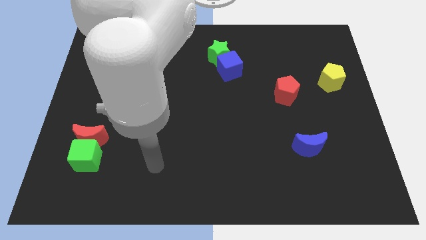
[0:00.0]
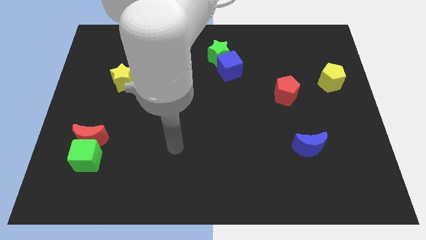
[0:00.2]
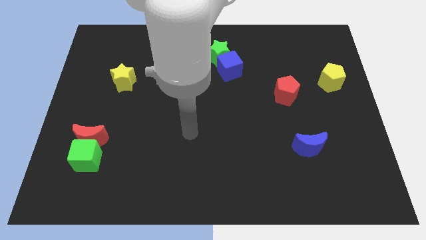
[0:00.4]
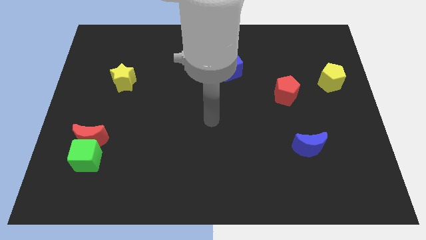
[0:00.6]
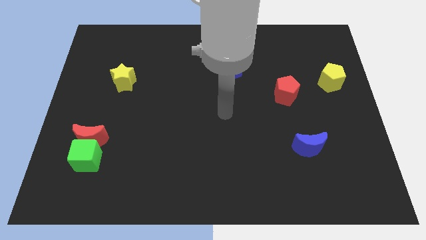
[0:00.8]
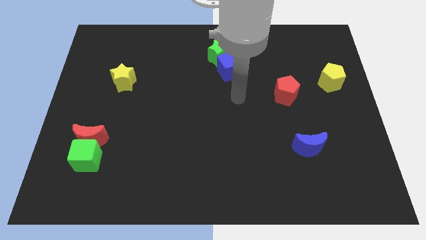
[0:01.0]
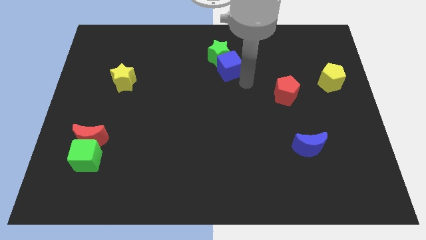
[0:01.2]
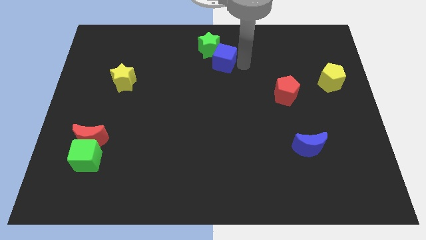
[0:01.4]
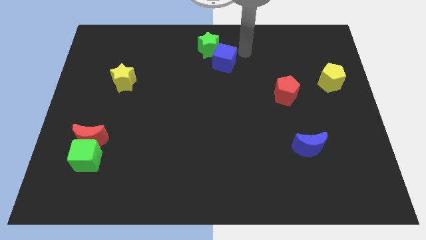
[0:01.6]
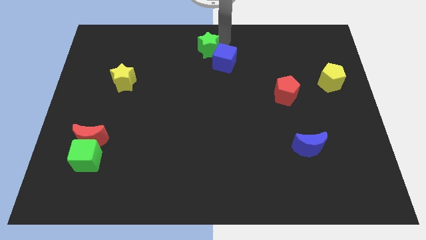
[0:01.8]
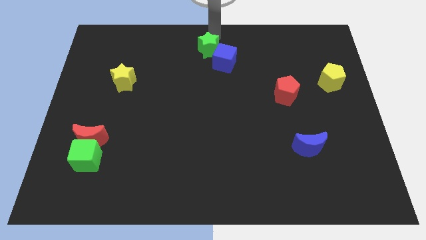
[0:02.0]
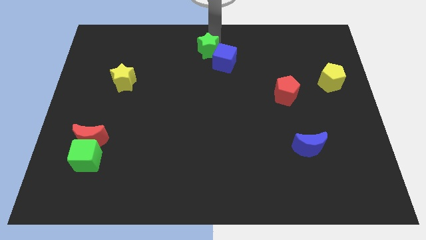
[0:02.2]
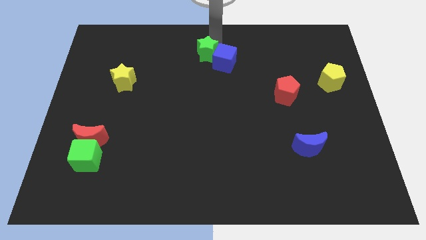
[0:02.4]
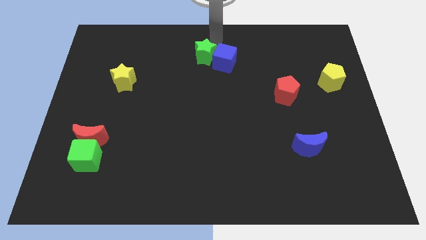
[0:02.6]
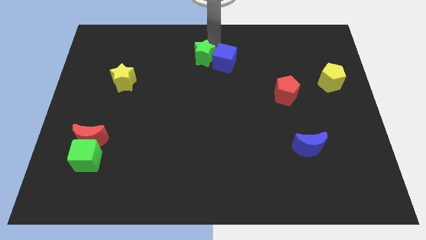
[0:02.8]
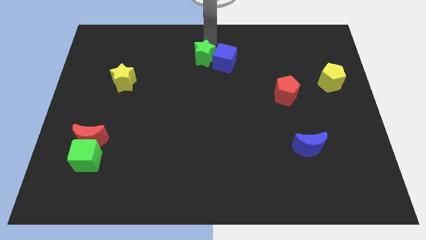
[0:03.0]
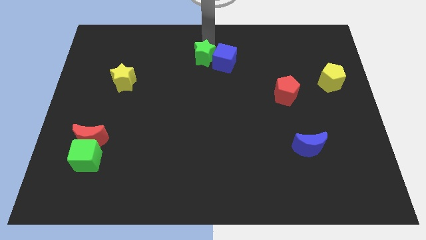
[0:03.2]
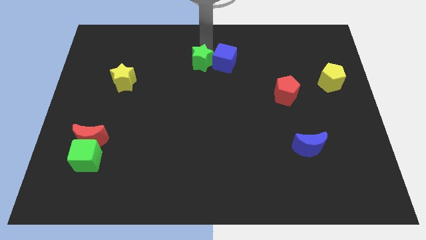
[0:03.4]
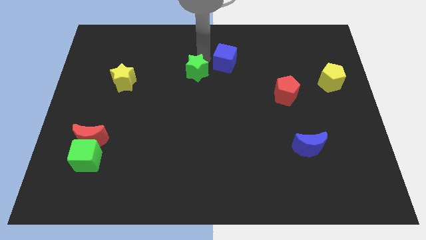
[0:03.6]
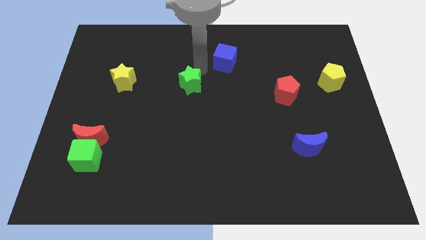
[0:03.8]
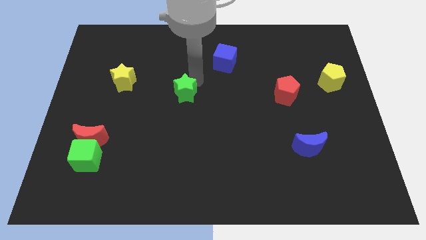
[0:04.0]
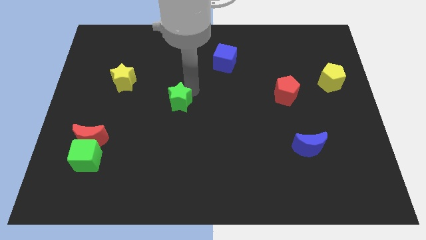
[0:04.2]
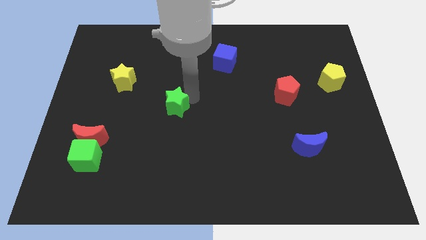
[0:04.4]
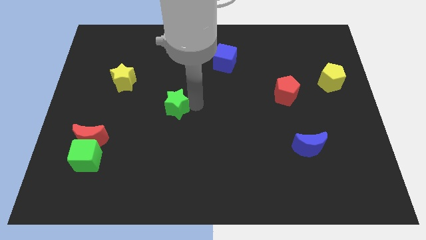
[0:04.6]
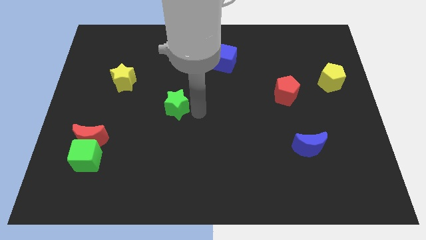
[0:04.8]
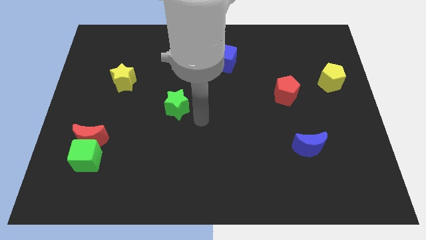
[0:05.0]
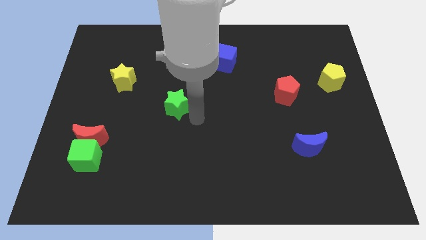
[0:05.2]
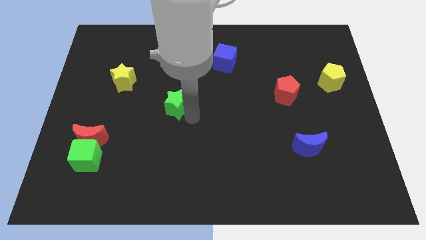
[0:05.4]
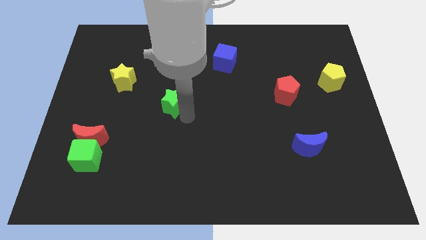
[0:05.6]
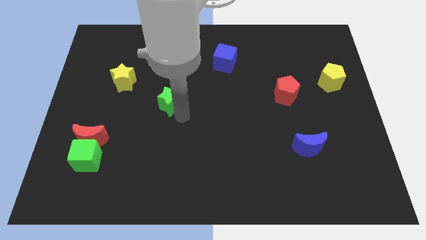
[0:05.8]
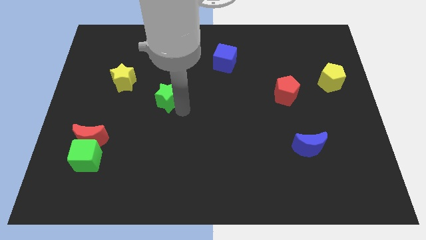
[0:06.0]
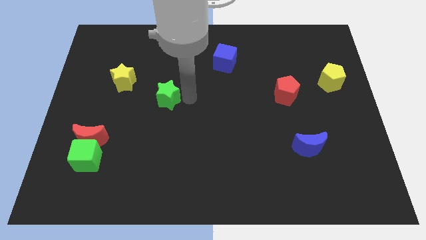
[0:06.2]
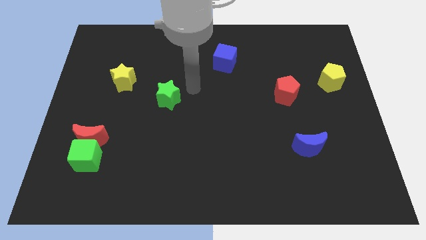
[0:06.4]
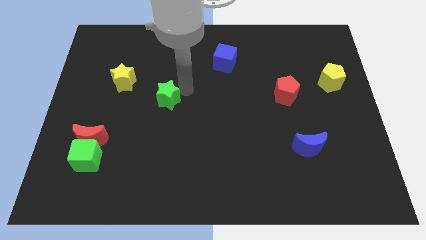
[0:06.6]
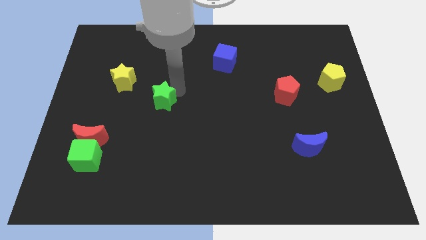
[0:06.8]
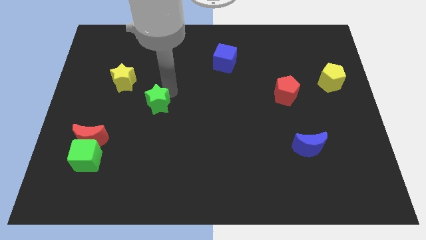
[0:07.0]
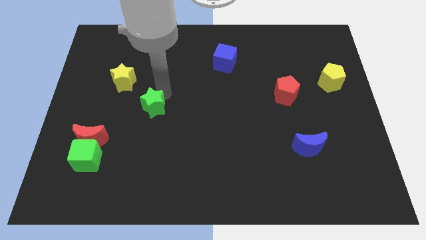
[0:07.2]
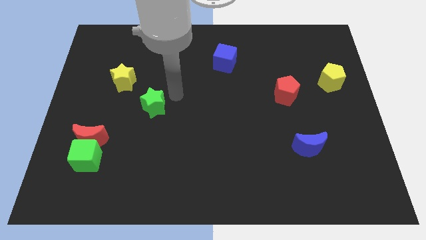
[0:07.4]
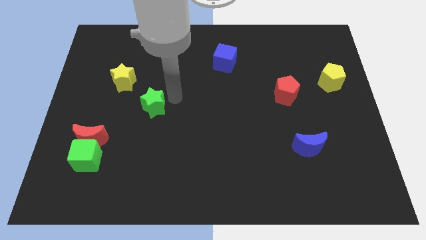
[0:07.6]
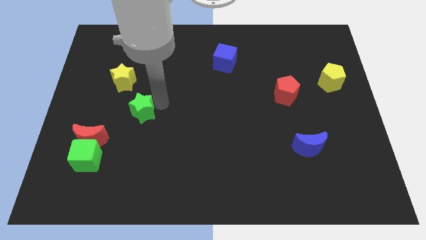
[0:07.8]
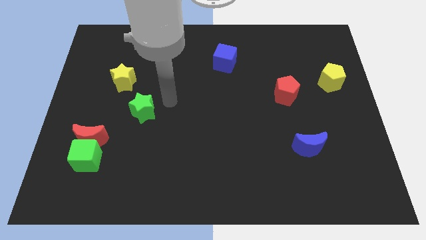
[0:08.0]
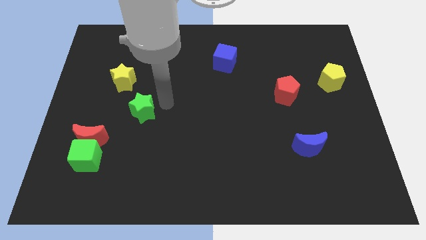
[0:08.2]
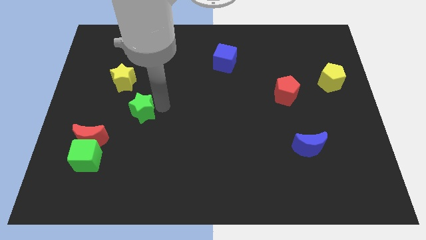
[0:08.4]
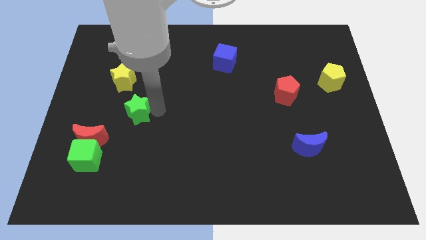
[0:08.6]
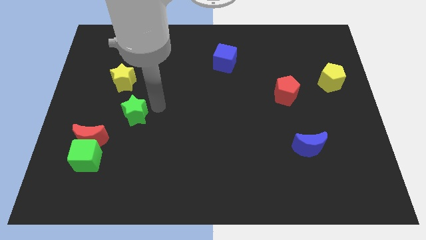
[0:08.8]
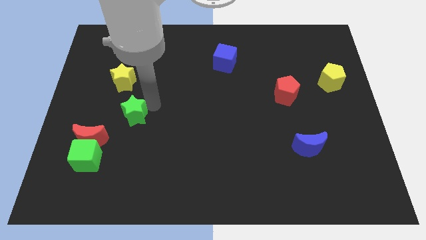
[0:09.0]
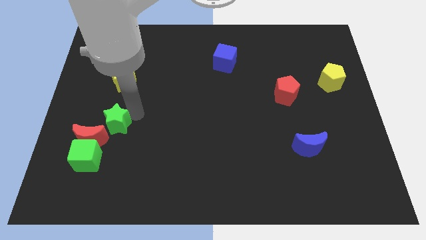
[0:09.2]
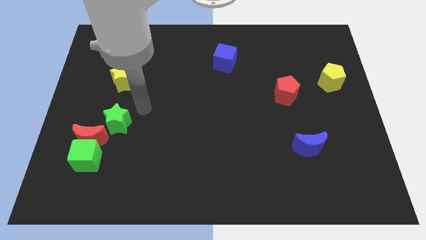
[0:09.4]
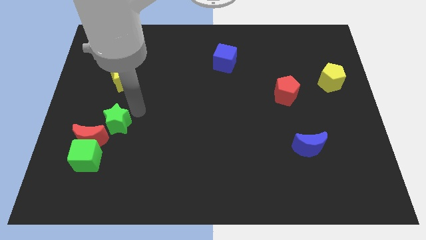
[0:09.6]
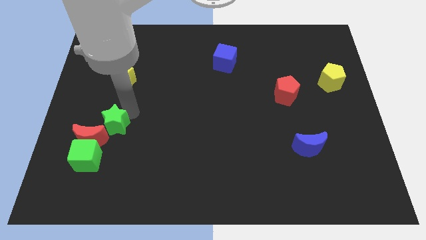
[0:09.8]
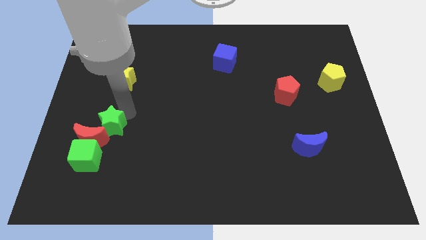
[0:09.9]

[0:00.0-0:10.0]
push the green star close to the red moon

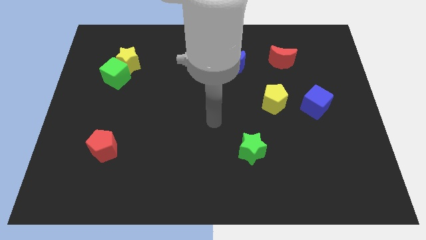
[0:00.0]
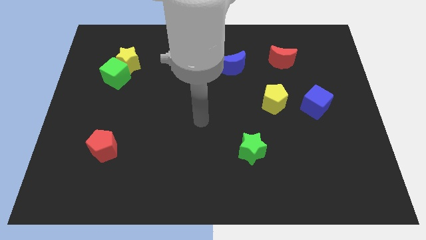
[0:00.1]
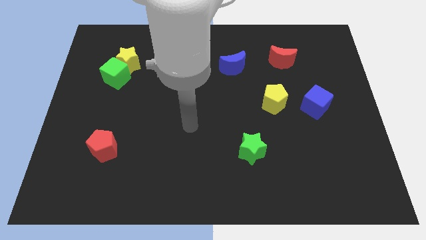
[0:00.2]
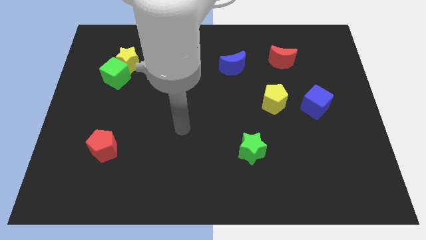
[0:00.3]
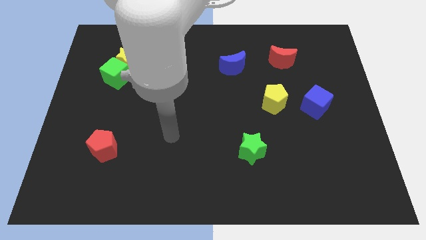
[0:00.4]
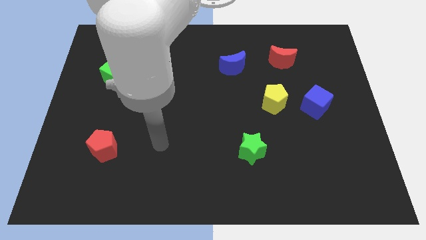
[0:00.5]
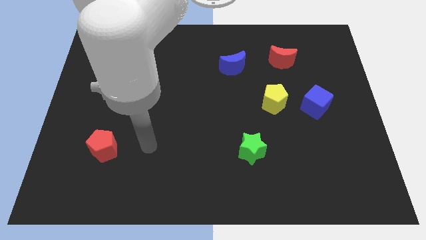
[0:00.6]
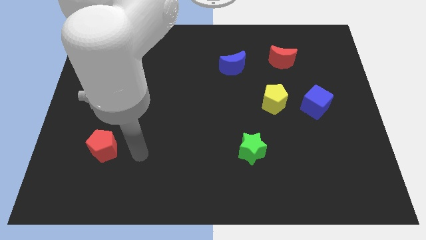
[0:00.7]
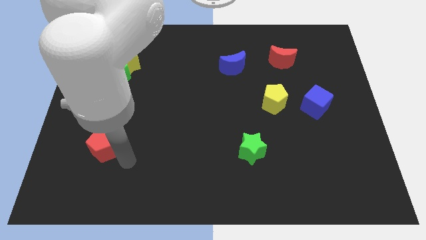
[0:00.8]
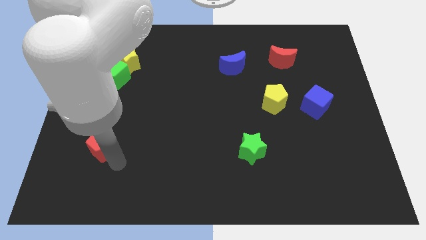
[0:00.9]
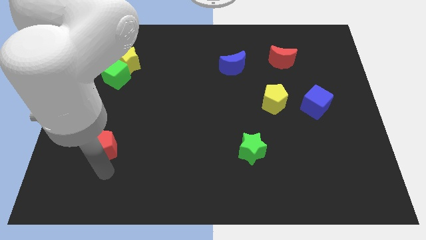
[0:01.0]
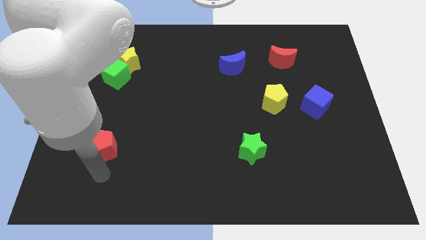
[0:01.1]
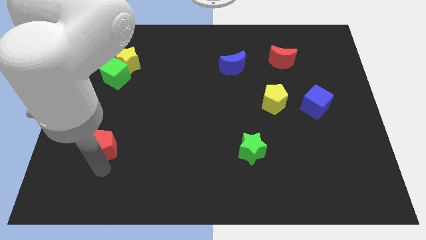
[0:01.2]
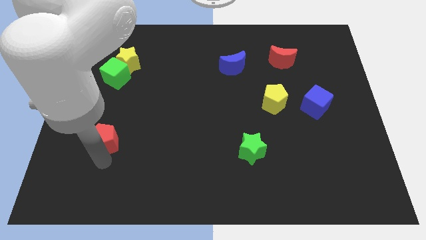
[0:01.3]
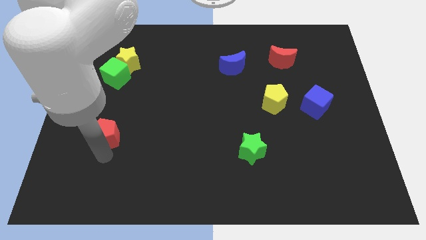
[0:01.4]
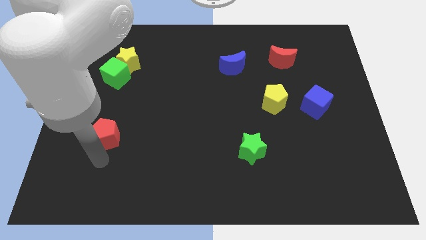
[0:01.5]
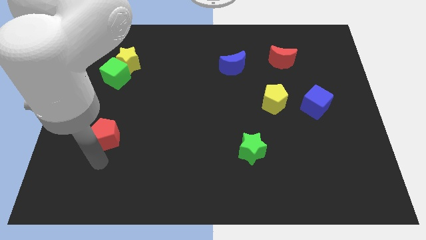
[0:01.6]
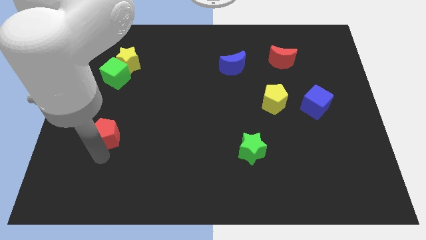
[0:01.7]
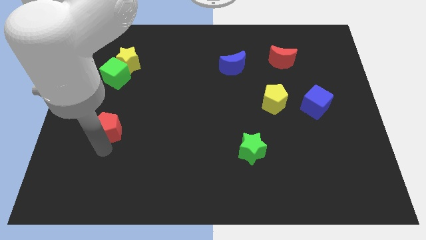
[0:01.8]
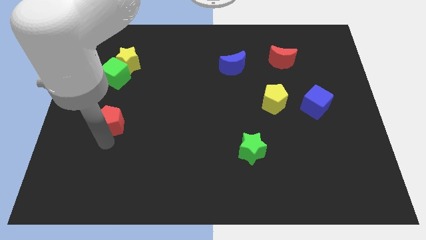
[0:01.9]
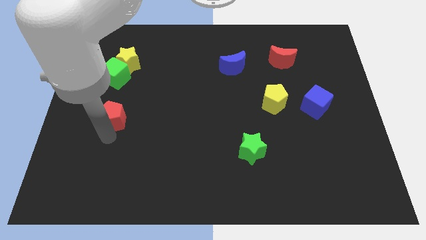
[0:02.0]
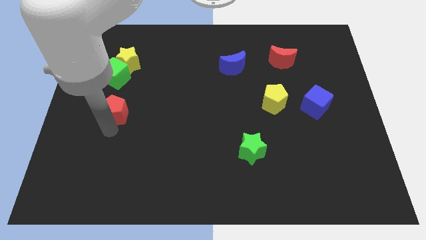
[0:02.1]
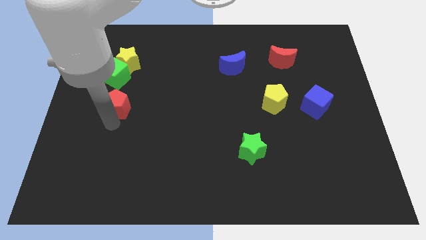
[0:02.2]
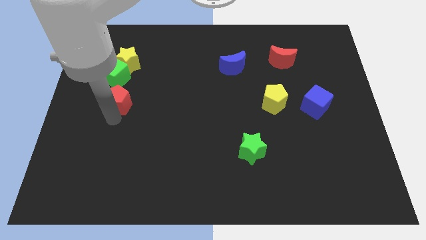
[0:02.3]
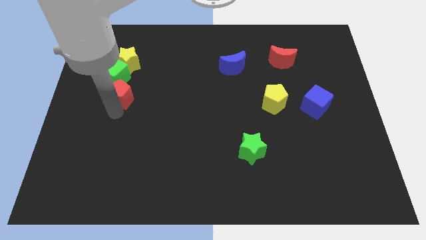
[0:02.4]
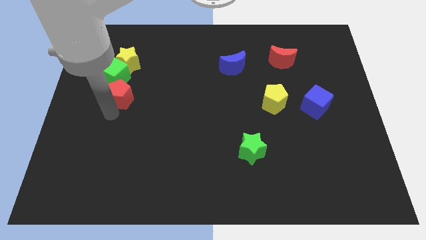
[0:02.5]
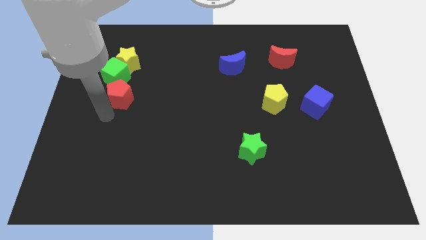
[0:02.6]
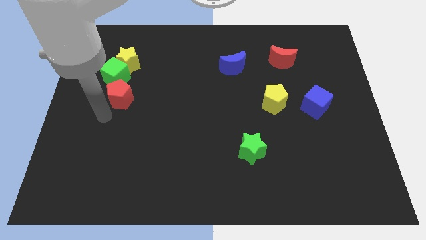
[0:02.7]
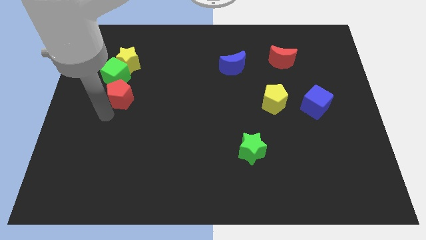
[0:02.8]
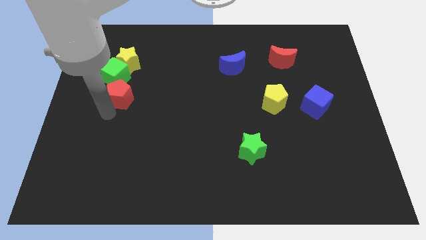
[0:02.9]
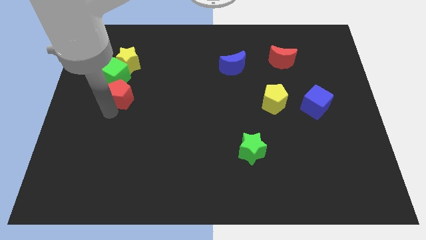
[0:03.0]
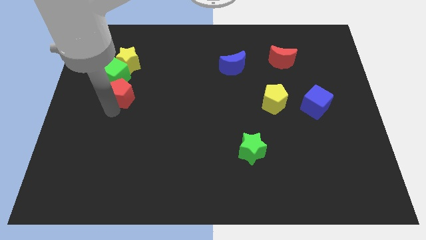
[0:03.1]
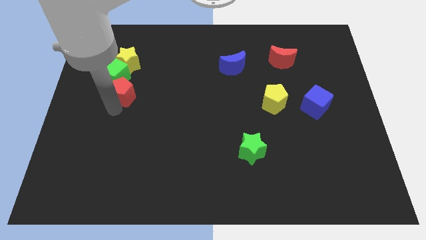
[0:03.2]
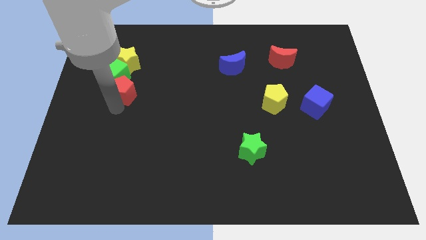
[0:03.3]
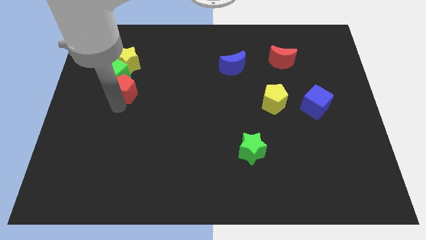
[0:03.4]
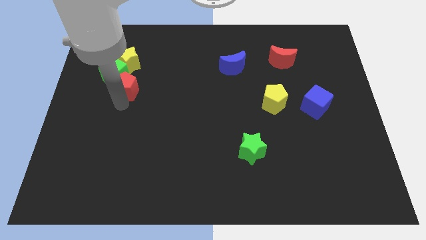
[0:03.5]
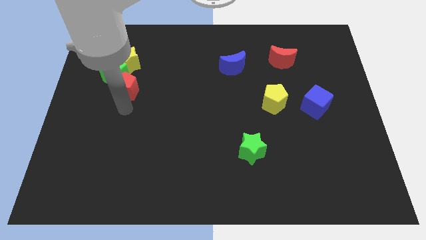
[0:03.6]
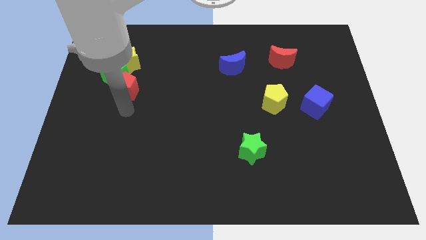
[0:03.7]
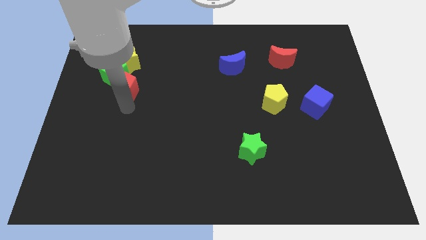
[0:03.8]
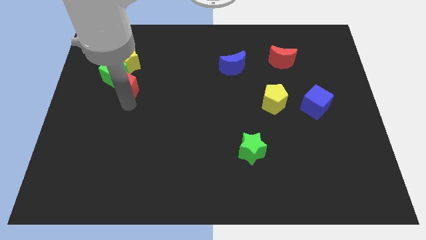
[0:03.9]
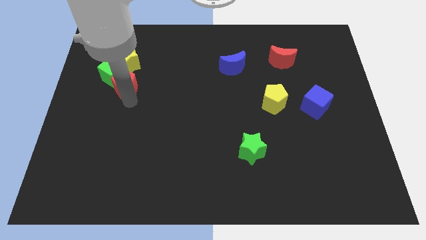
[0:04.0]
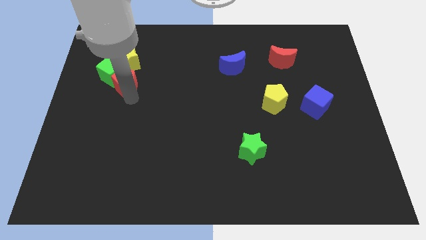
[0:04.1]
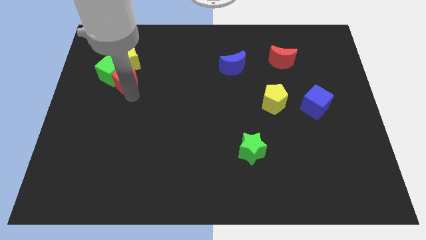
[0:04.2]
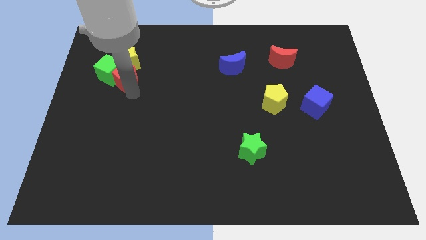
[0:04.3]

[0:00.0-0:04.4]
move the red pentagon to the yellow star
